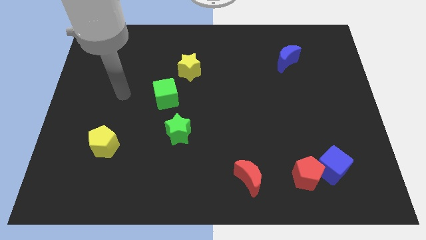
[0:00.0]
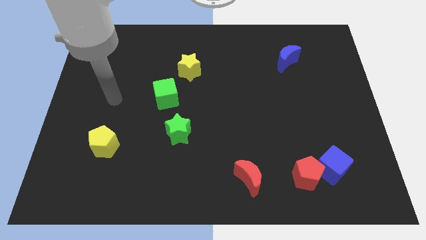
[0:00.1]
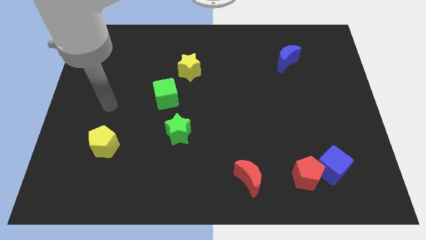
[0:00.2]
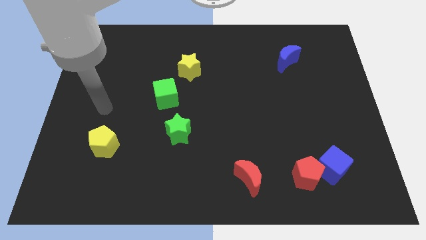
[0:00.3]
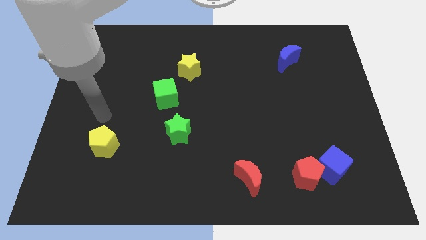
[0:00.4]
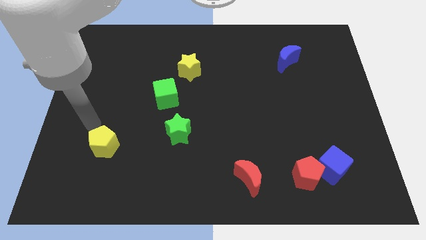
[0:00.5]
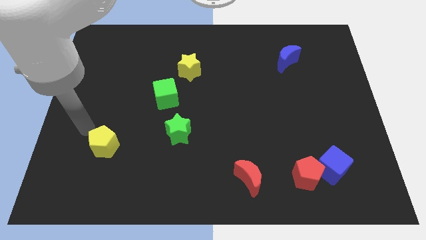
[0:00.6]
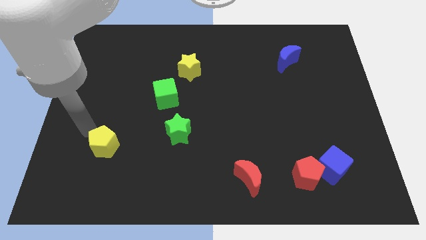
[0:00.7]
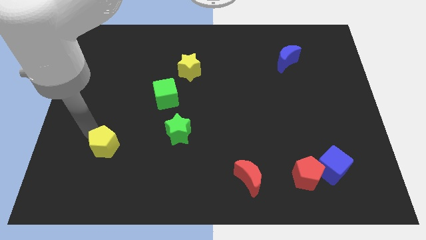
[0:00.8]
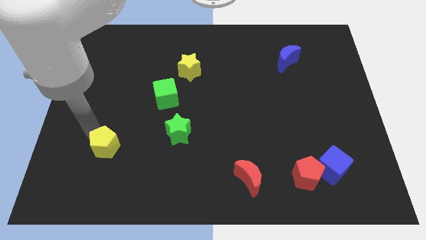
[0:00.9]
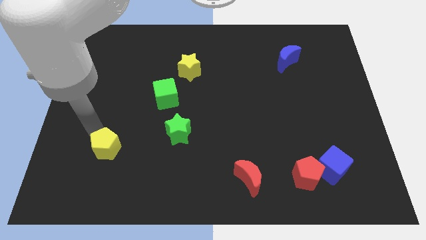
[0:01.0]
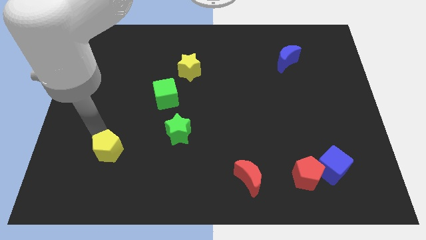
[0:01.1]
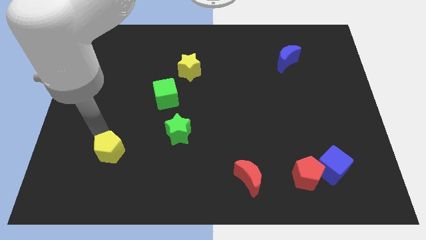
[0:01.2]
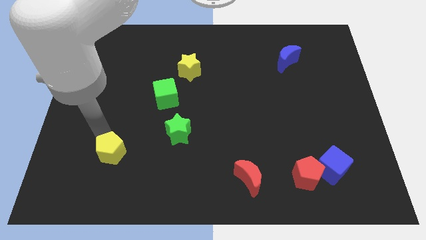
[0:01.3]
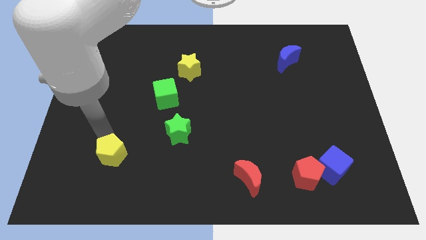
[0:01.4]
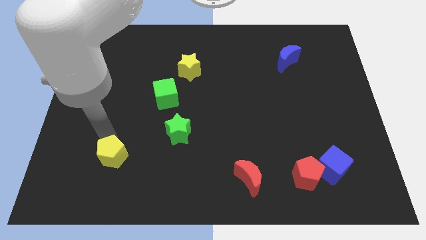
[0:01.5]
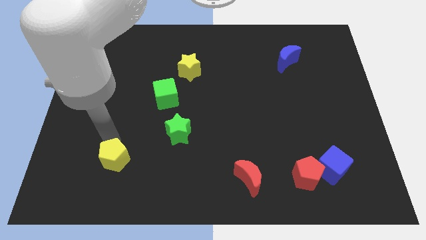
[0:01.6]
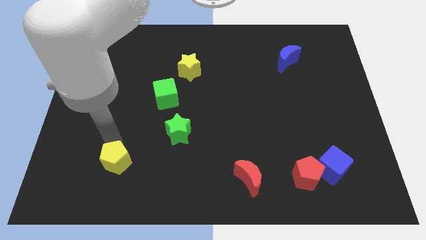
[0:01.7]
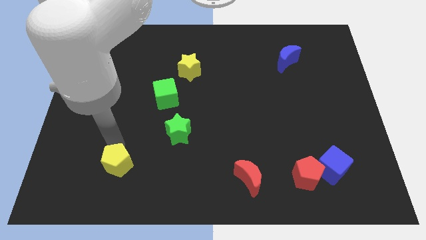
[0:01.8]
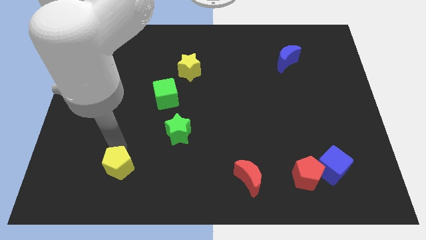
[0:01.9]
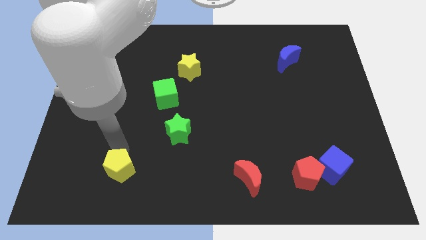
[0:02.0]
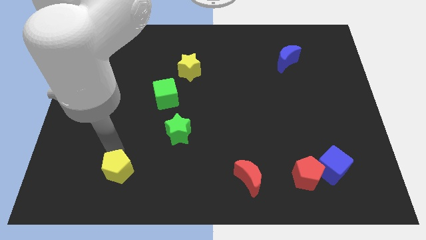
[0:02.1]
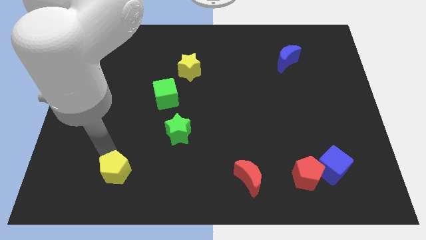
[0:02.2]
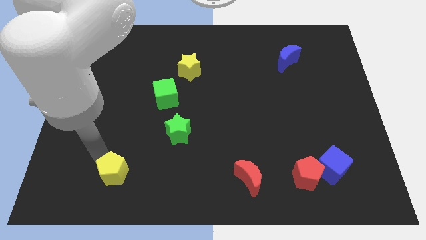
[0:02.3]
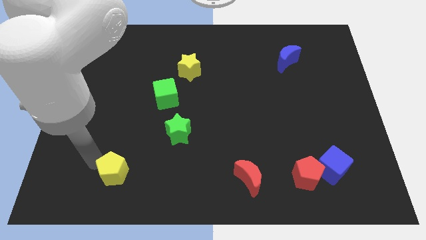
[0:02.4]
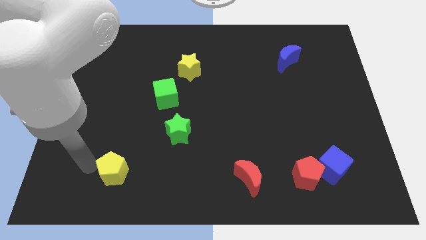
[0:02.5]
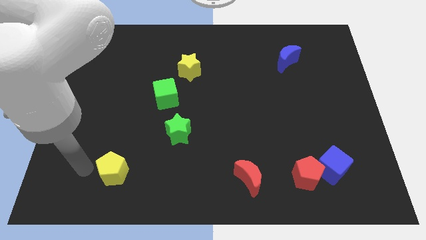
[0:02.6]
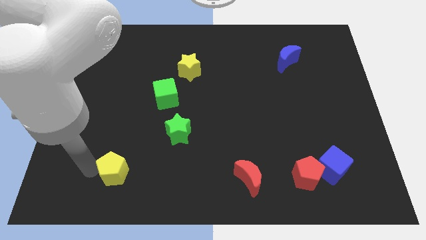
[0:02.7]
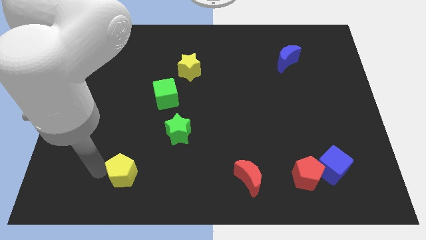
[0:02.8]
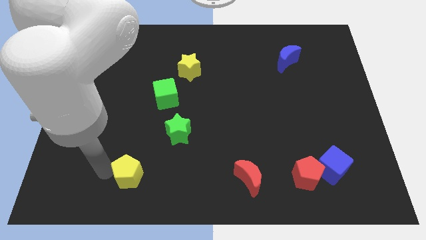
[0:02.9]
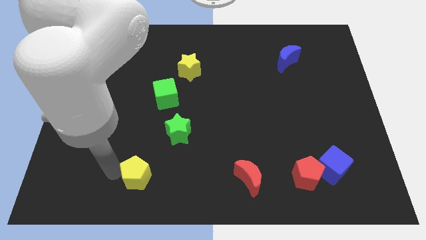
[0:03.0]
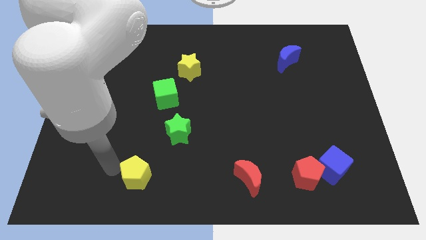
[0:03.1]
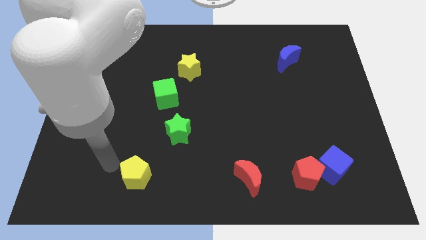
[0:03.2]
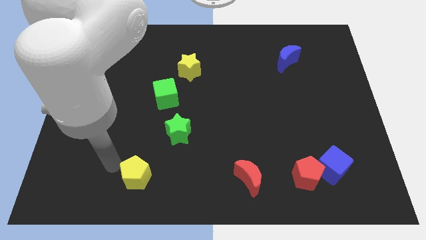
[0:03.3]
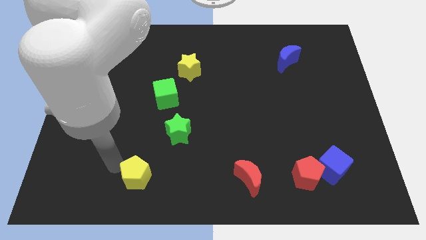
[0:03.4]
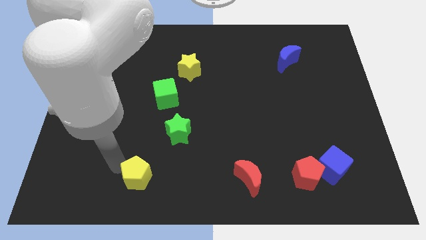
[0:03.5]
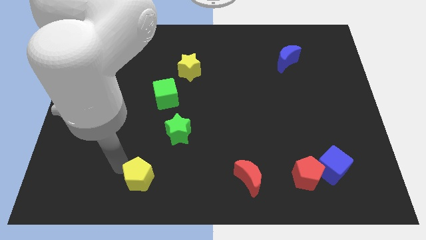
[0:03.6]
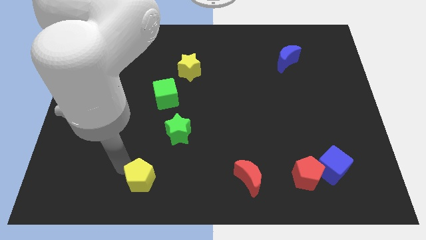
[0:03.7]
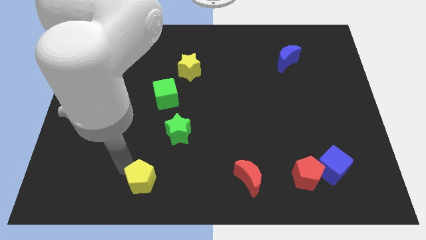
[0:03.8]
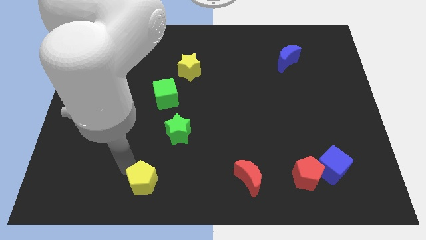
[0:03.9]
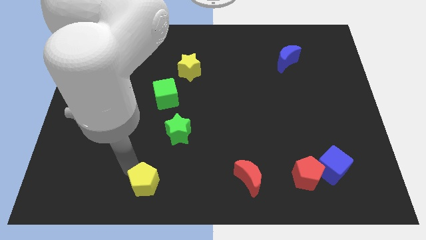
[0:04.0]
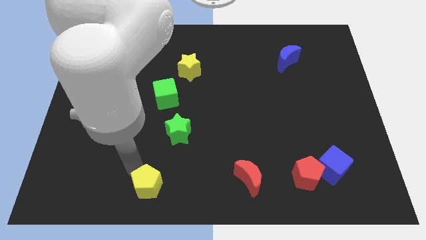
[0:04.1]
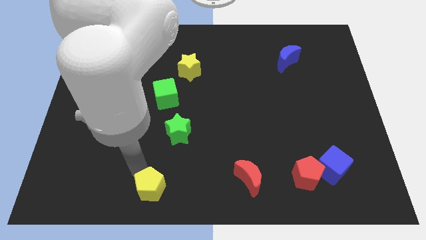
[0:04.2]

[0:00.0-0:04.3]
put the yellow pentagon to the bottom

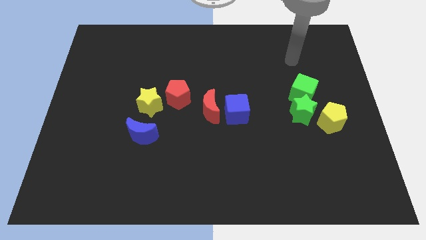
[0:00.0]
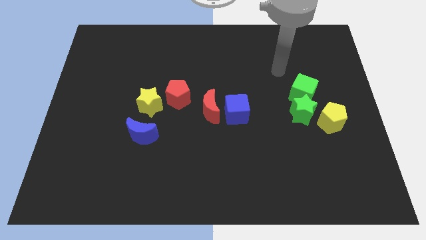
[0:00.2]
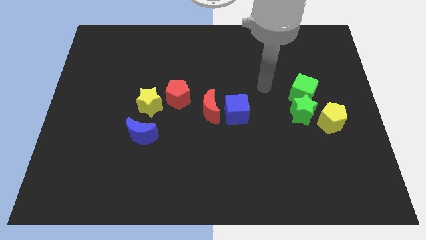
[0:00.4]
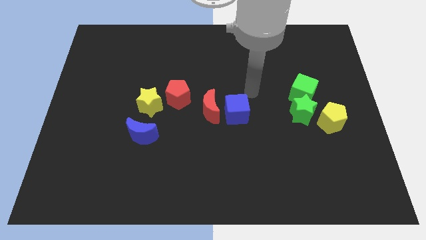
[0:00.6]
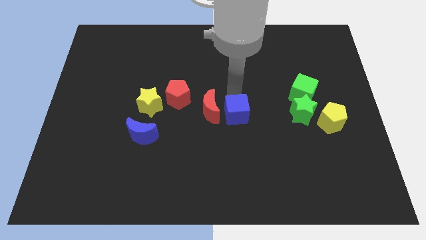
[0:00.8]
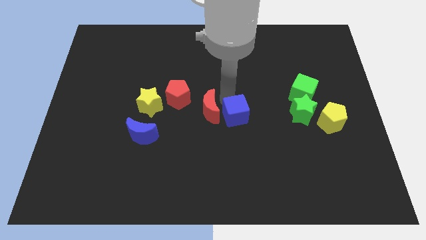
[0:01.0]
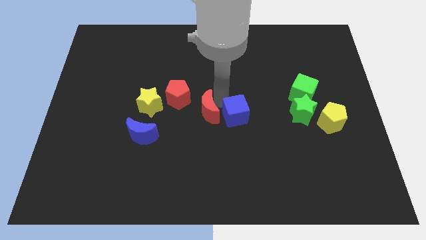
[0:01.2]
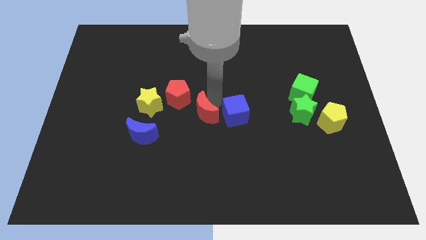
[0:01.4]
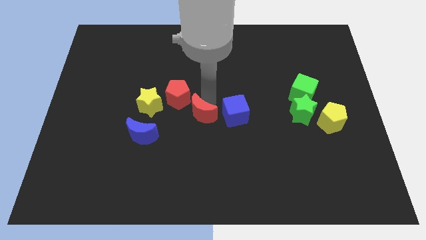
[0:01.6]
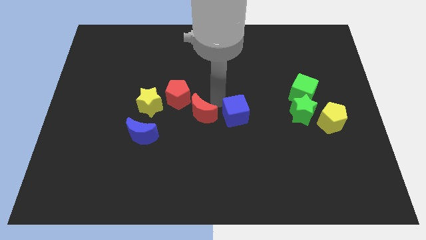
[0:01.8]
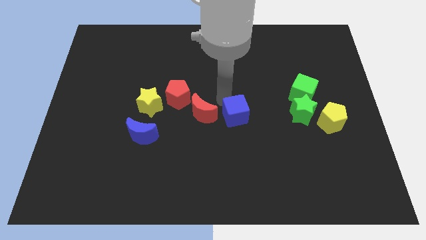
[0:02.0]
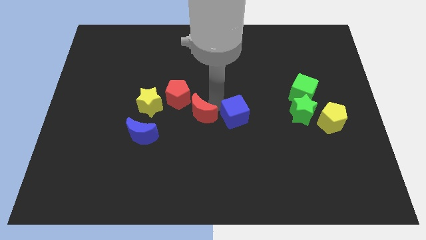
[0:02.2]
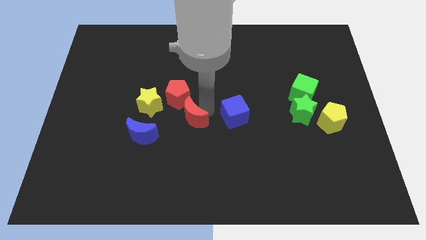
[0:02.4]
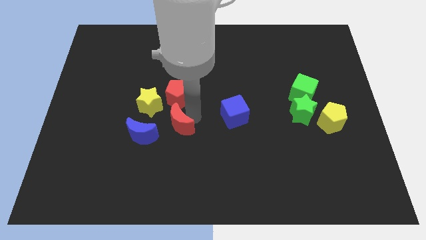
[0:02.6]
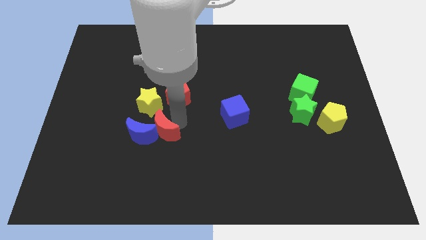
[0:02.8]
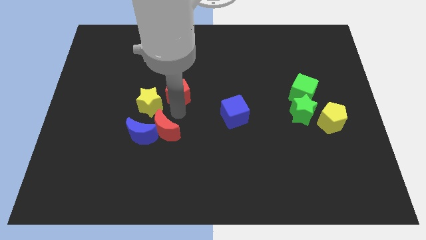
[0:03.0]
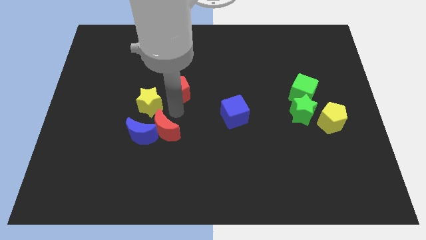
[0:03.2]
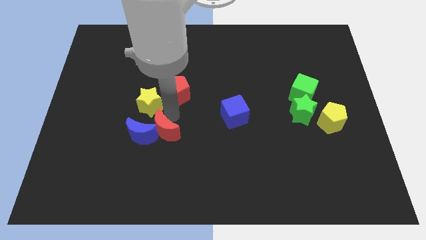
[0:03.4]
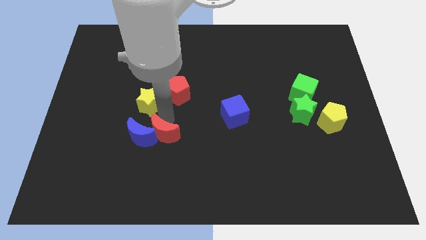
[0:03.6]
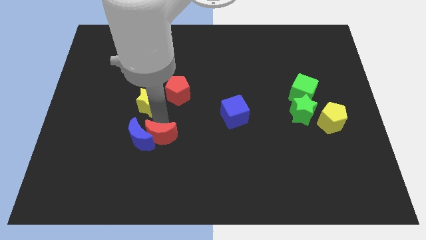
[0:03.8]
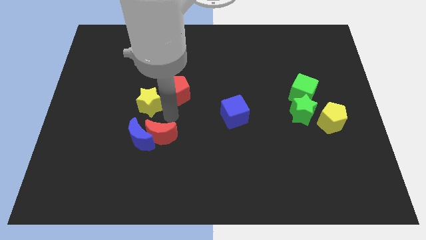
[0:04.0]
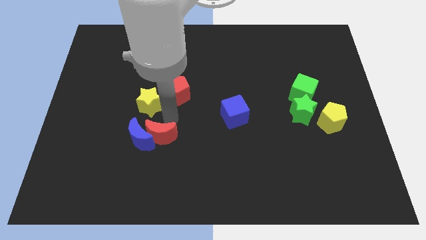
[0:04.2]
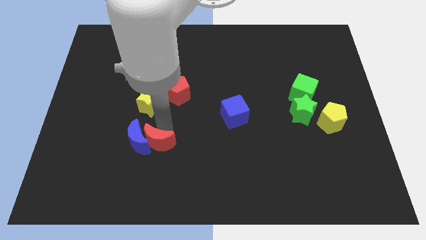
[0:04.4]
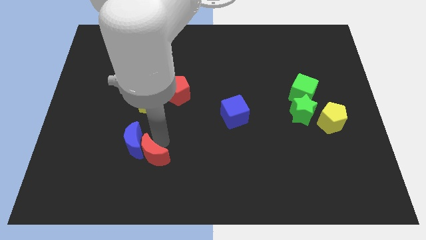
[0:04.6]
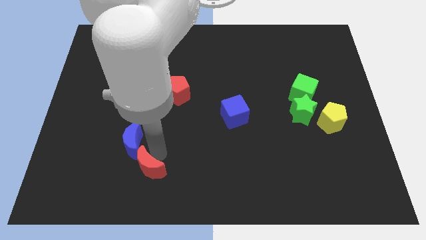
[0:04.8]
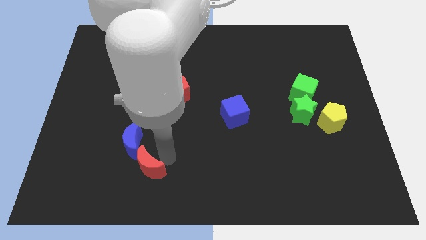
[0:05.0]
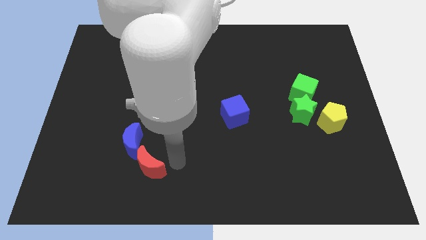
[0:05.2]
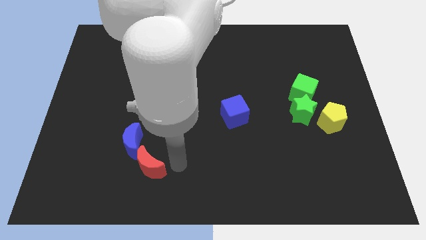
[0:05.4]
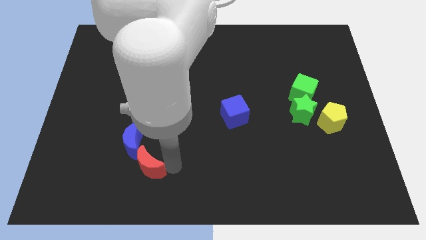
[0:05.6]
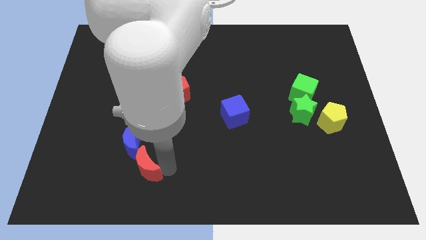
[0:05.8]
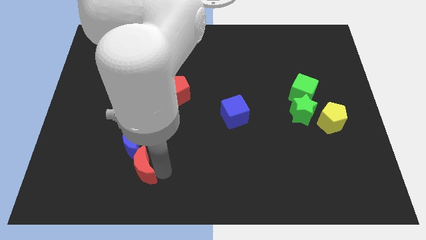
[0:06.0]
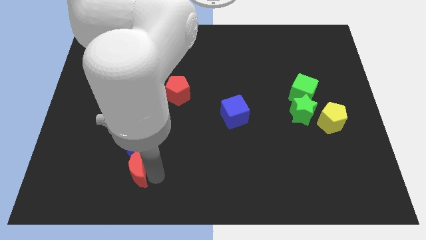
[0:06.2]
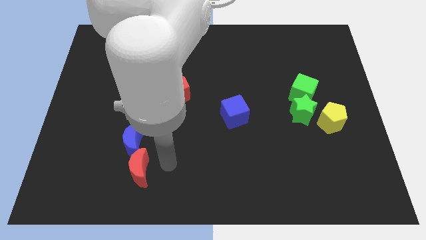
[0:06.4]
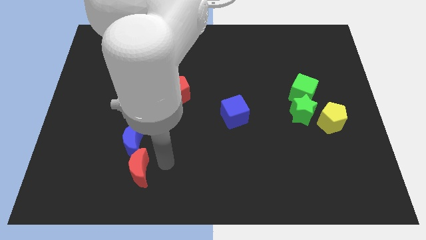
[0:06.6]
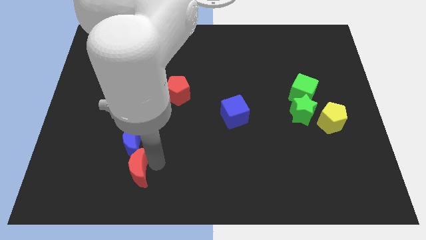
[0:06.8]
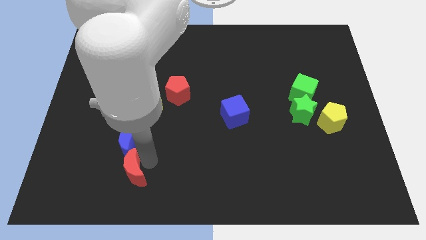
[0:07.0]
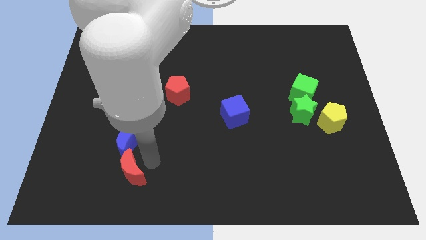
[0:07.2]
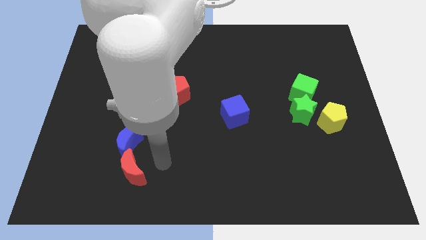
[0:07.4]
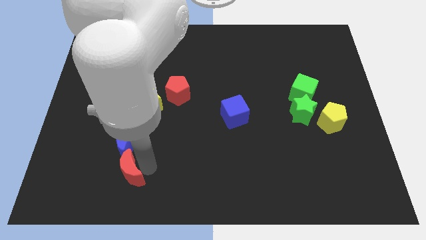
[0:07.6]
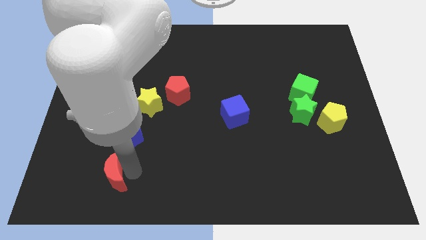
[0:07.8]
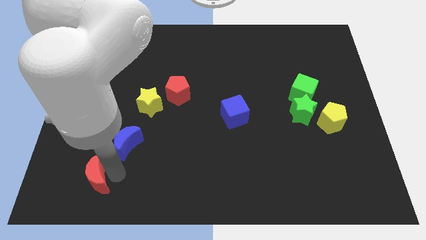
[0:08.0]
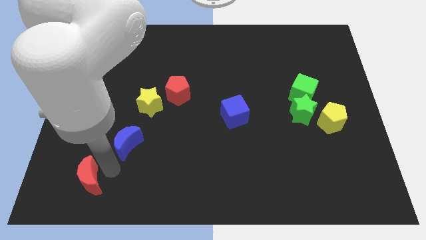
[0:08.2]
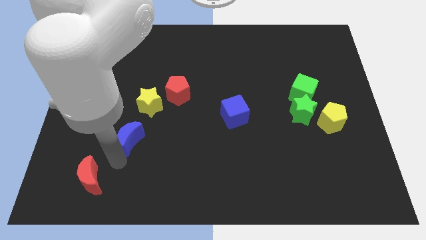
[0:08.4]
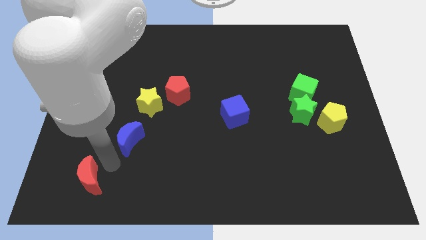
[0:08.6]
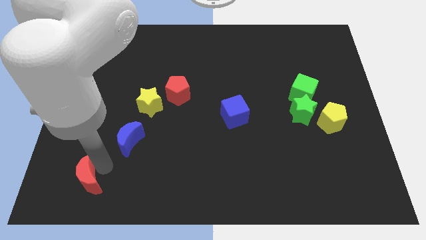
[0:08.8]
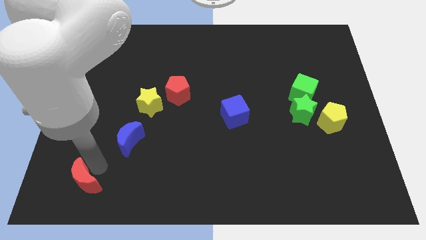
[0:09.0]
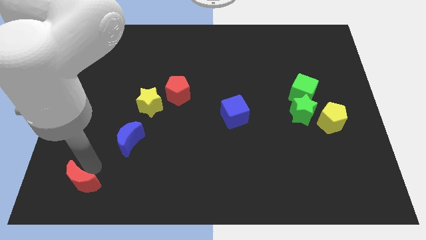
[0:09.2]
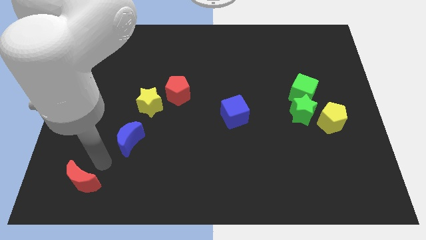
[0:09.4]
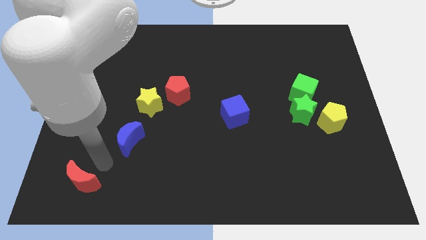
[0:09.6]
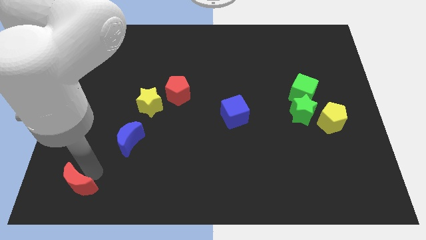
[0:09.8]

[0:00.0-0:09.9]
push the red moon to the lower left corner
